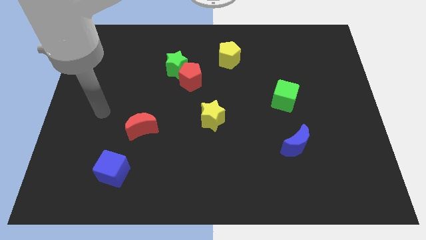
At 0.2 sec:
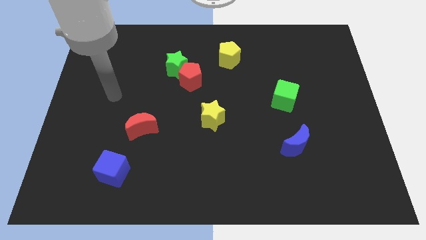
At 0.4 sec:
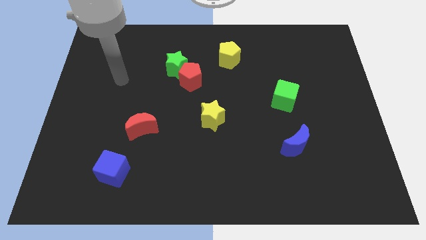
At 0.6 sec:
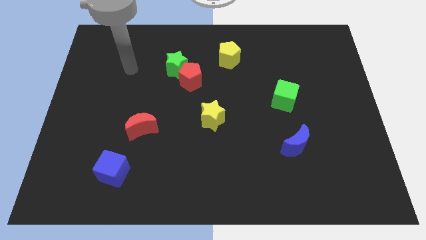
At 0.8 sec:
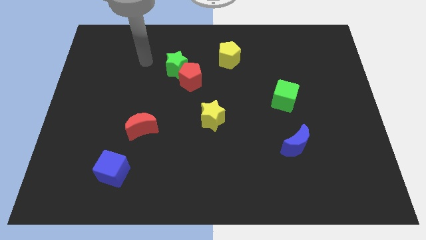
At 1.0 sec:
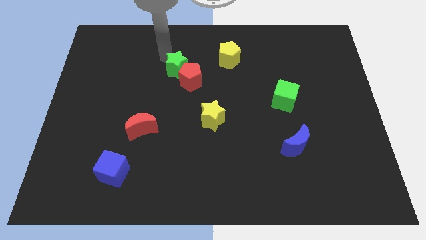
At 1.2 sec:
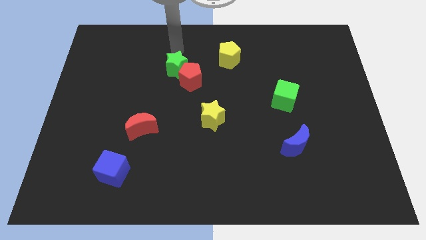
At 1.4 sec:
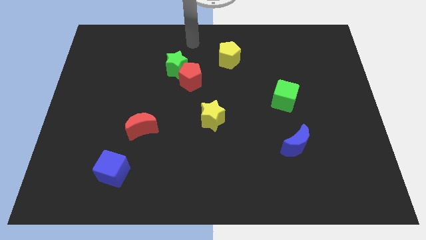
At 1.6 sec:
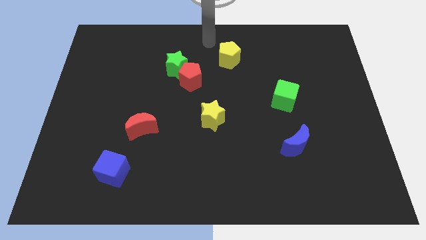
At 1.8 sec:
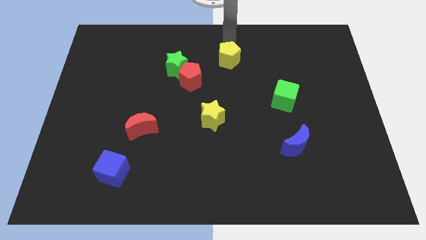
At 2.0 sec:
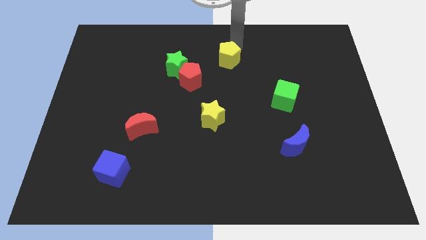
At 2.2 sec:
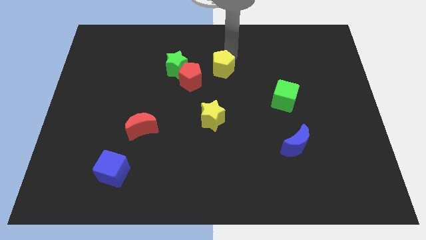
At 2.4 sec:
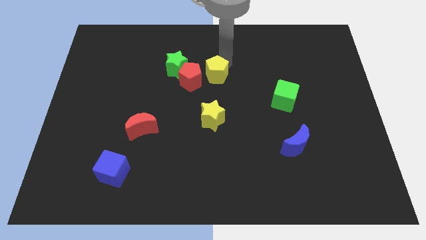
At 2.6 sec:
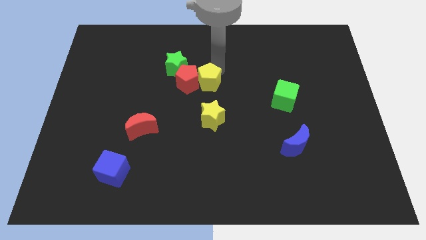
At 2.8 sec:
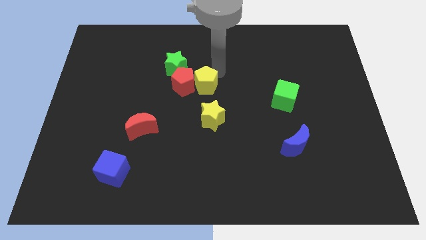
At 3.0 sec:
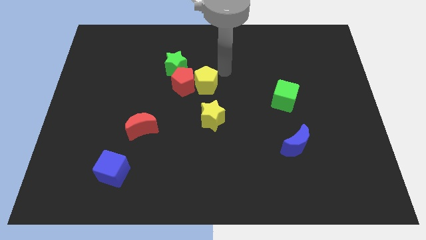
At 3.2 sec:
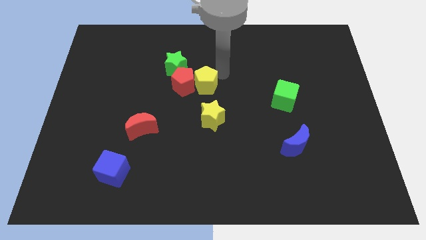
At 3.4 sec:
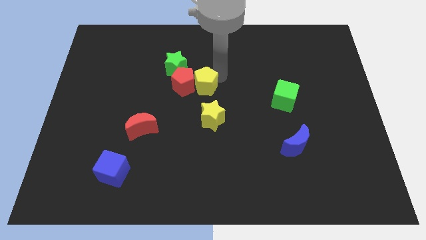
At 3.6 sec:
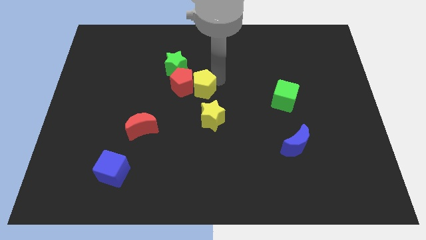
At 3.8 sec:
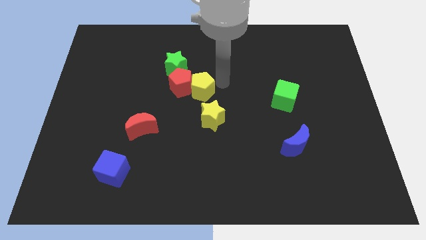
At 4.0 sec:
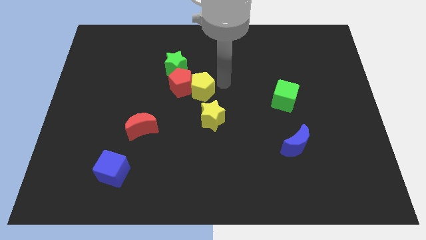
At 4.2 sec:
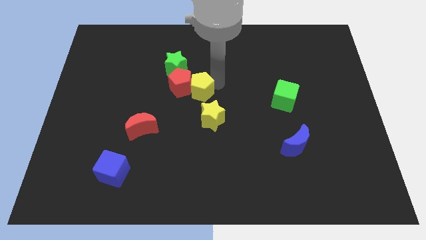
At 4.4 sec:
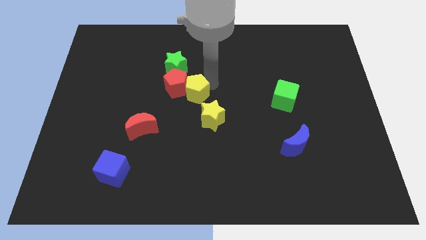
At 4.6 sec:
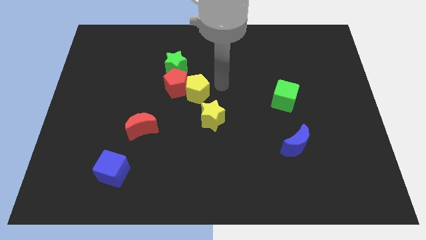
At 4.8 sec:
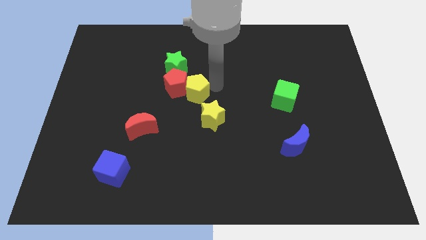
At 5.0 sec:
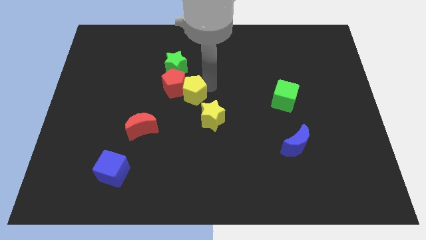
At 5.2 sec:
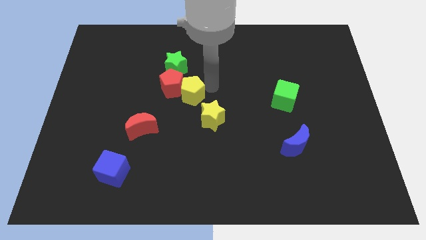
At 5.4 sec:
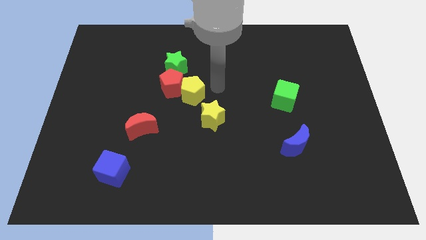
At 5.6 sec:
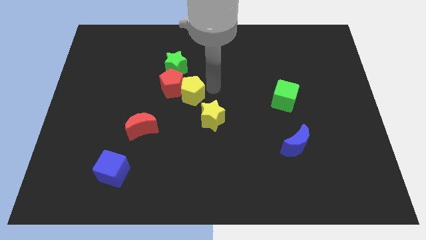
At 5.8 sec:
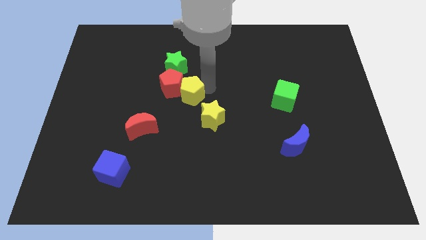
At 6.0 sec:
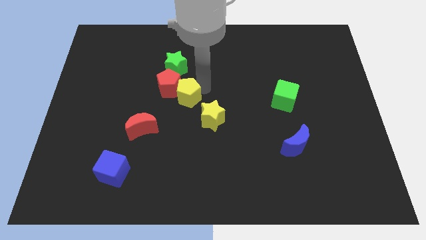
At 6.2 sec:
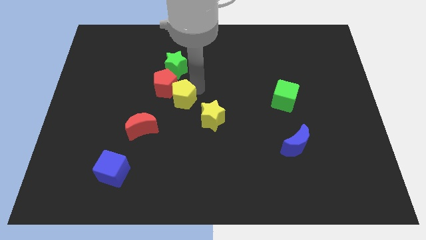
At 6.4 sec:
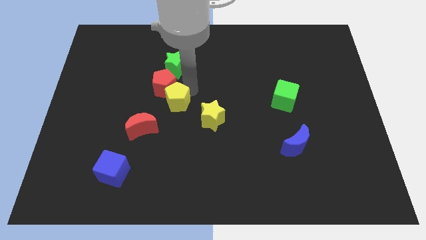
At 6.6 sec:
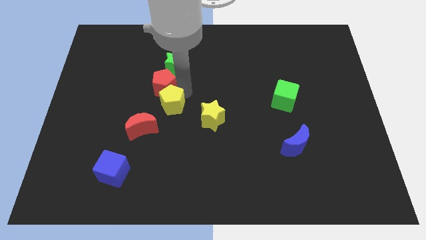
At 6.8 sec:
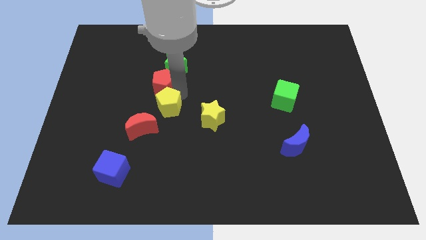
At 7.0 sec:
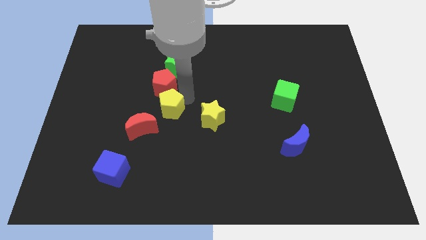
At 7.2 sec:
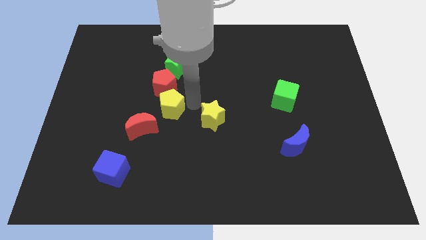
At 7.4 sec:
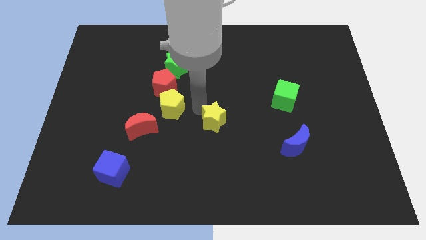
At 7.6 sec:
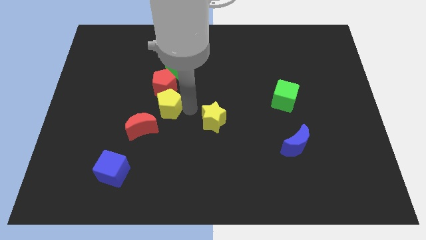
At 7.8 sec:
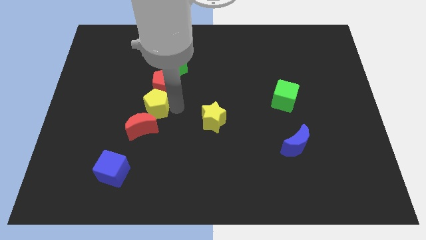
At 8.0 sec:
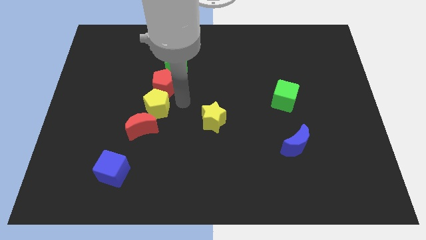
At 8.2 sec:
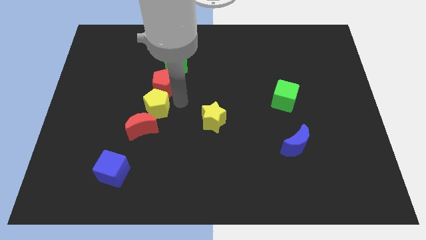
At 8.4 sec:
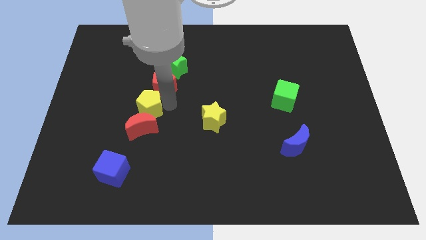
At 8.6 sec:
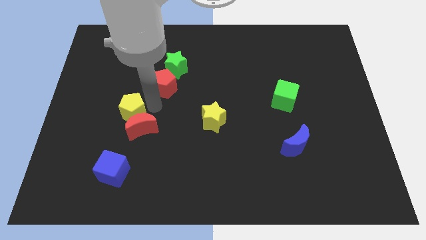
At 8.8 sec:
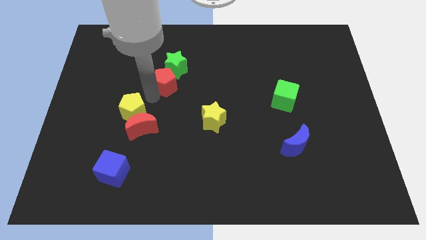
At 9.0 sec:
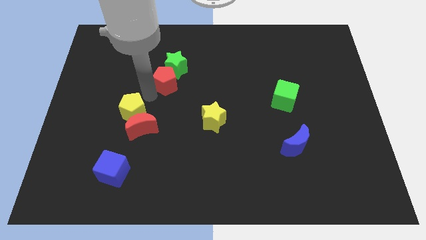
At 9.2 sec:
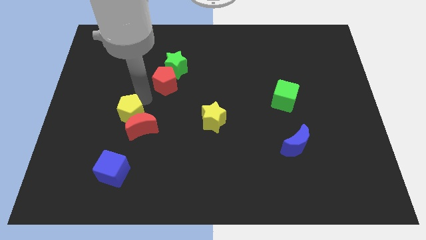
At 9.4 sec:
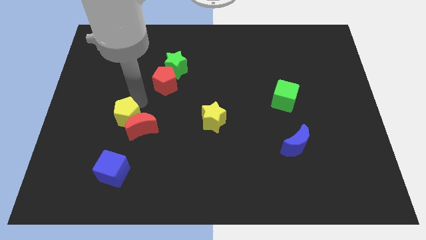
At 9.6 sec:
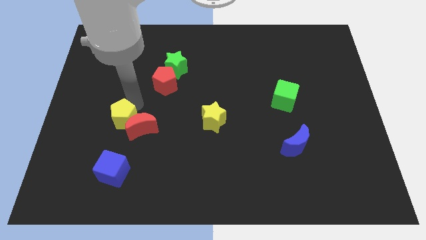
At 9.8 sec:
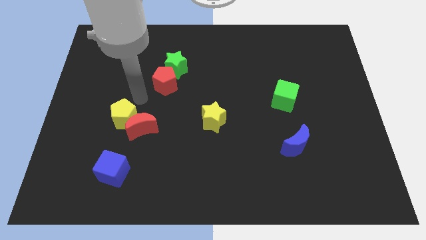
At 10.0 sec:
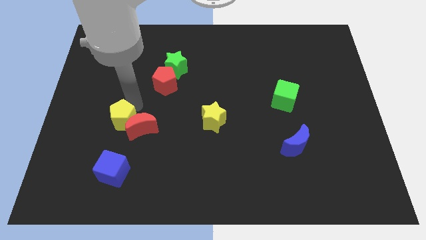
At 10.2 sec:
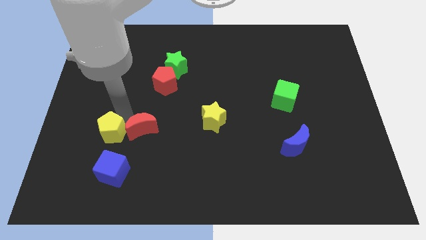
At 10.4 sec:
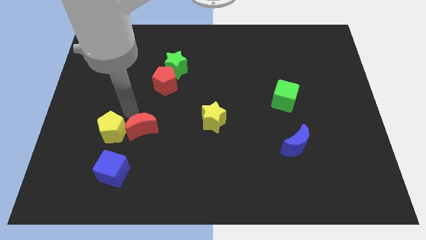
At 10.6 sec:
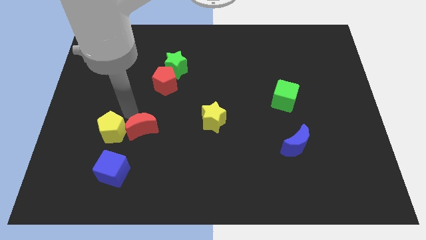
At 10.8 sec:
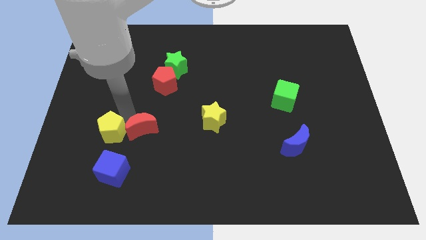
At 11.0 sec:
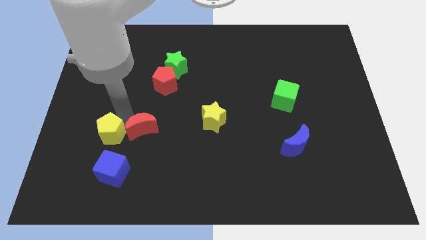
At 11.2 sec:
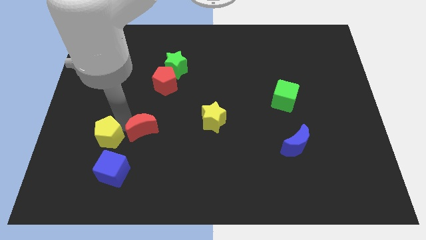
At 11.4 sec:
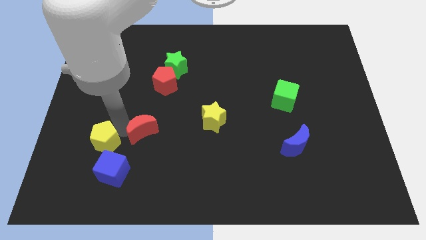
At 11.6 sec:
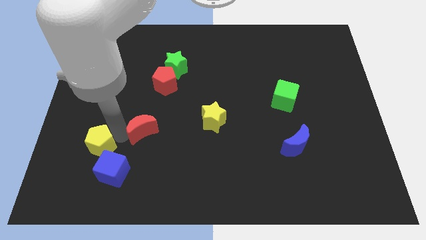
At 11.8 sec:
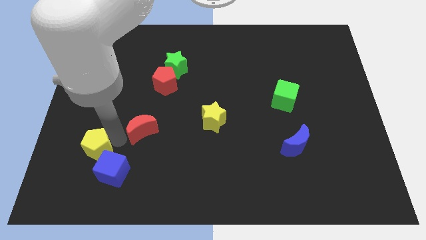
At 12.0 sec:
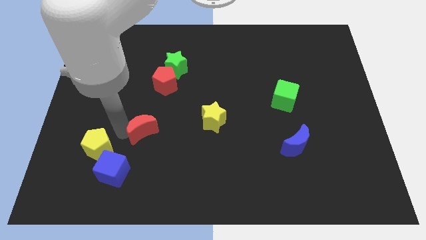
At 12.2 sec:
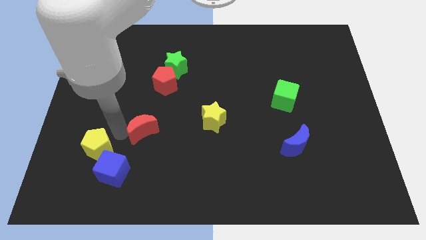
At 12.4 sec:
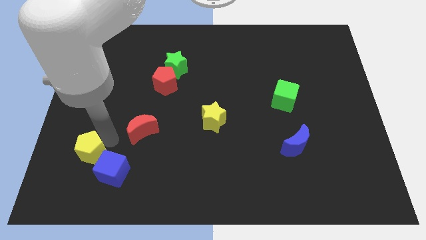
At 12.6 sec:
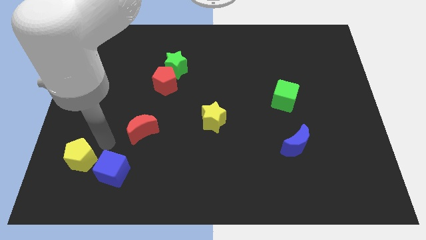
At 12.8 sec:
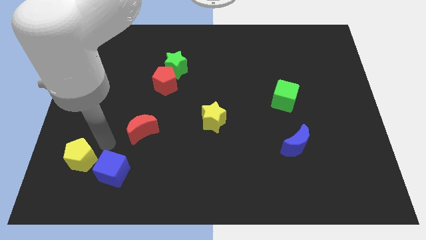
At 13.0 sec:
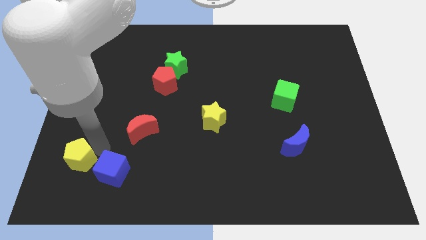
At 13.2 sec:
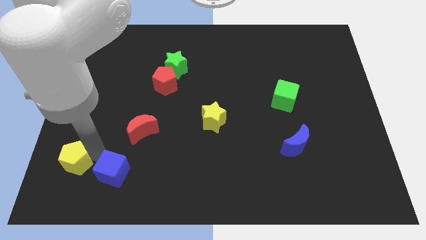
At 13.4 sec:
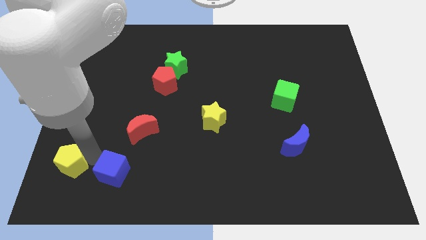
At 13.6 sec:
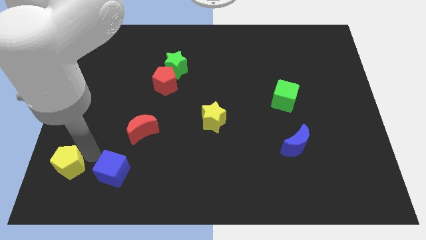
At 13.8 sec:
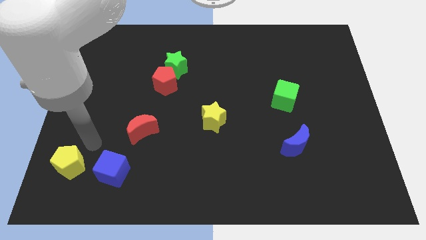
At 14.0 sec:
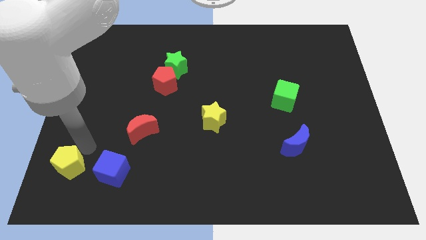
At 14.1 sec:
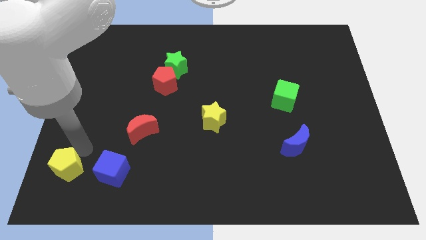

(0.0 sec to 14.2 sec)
slide the yellow pentagon to the bottom left corner
